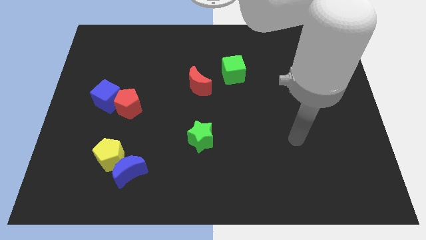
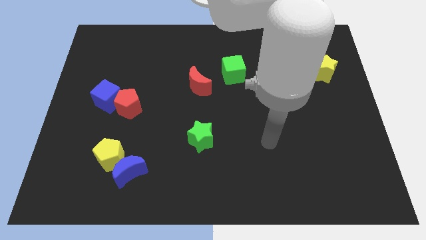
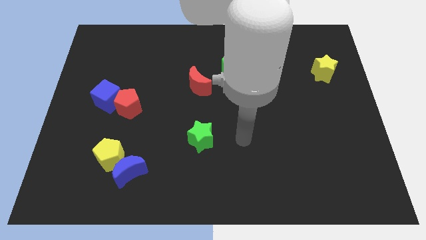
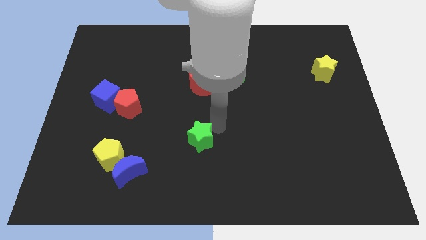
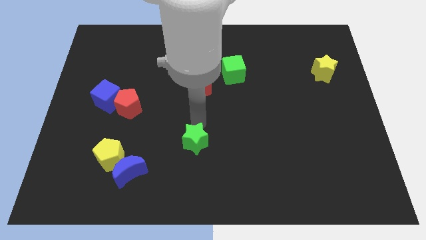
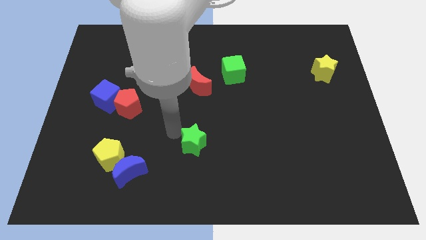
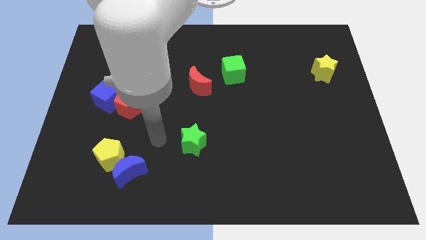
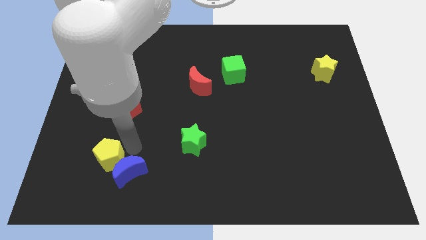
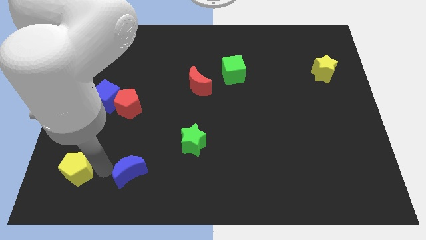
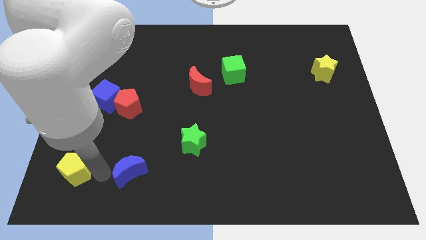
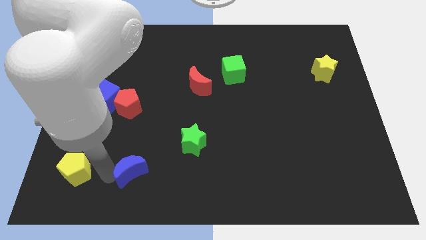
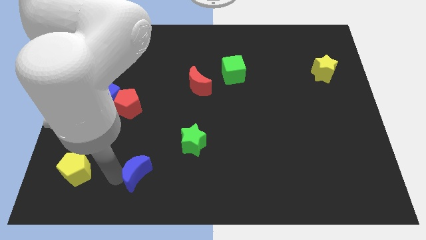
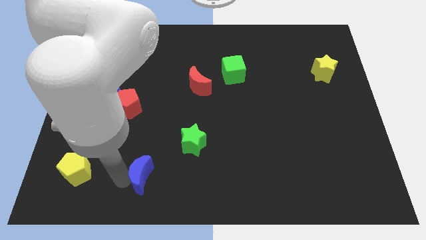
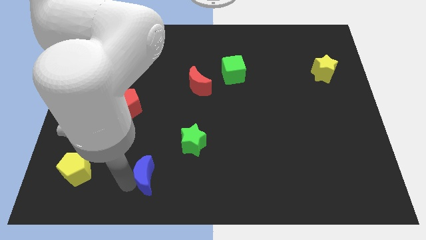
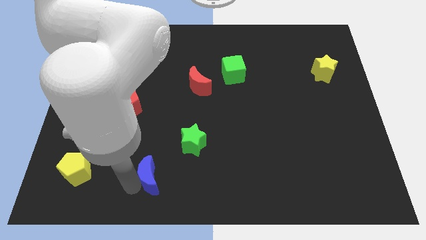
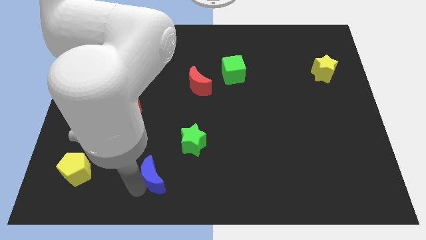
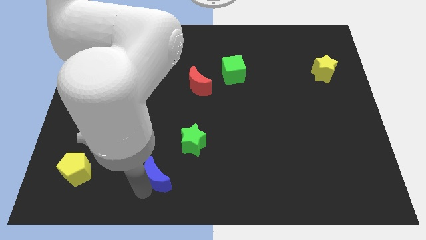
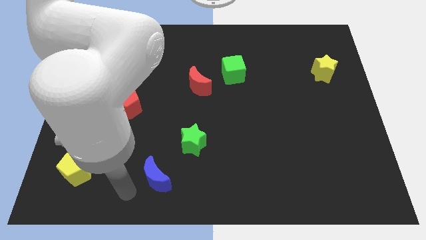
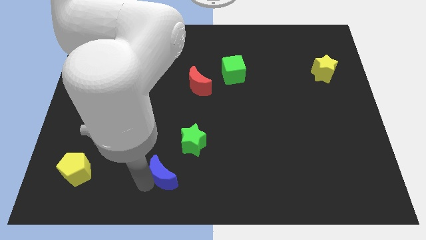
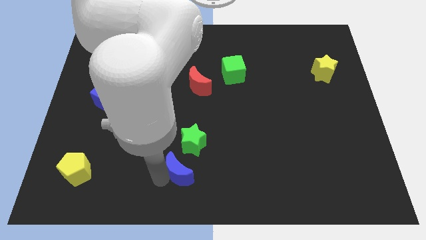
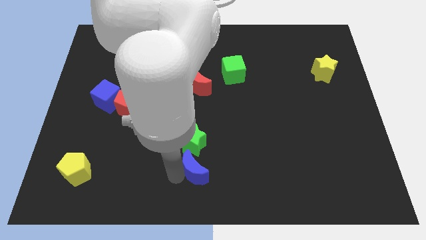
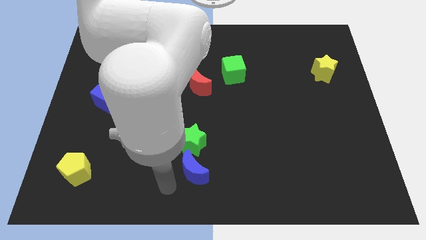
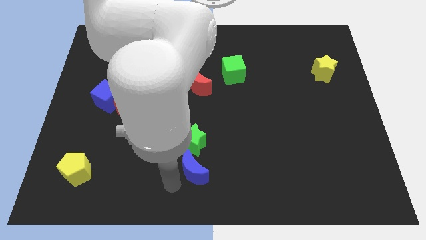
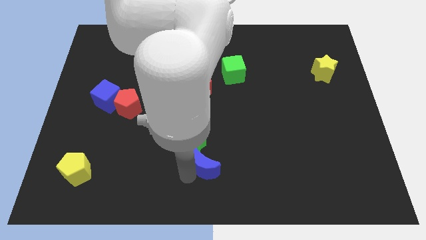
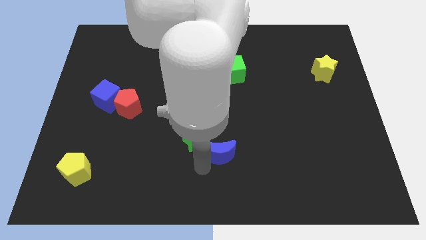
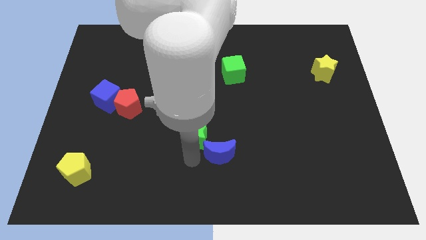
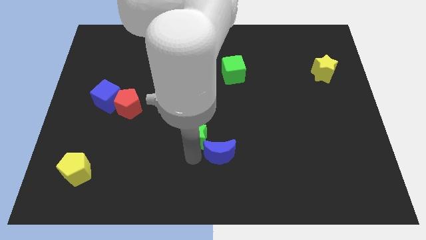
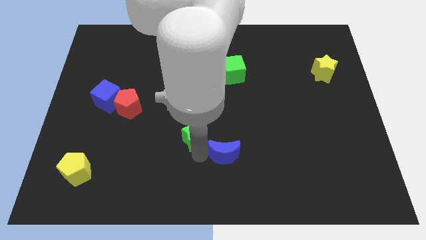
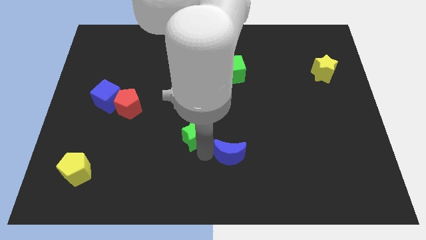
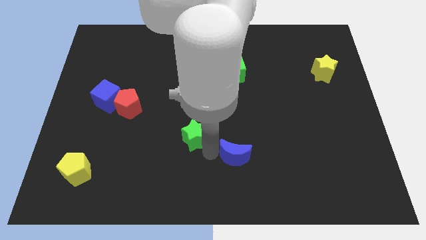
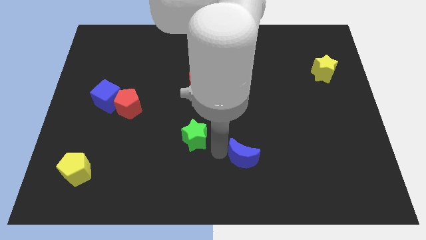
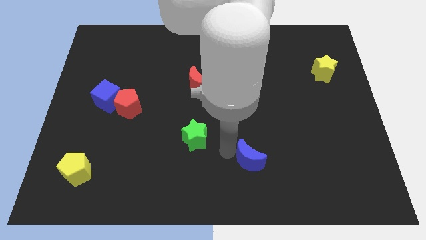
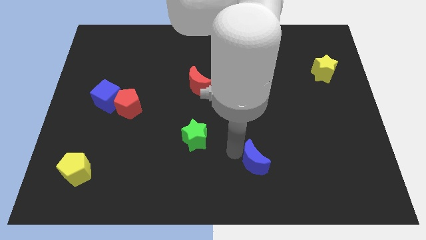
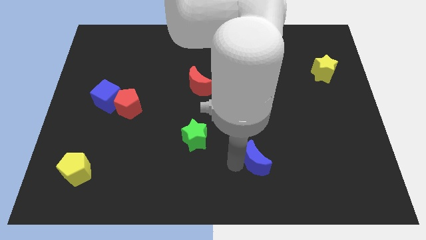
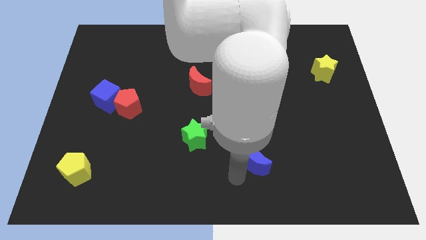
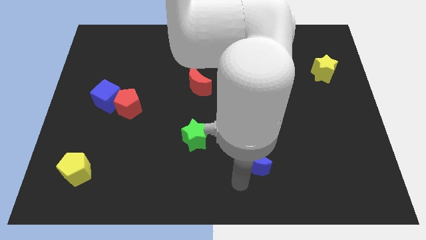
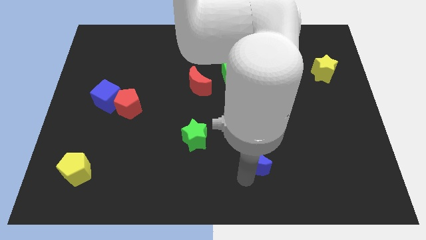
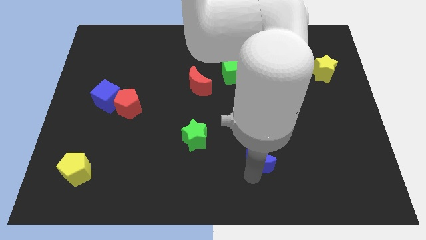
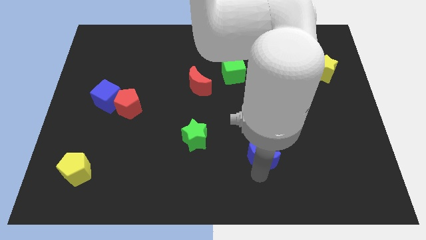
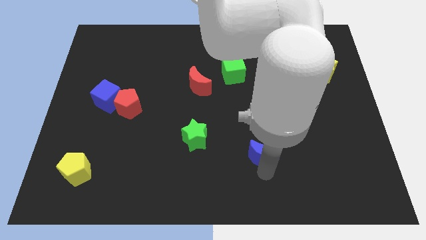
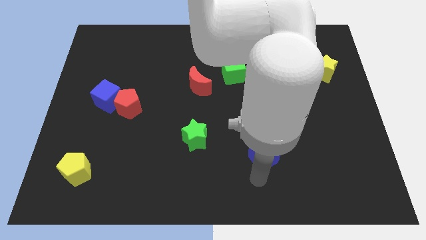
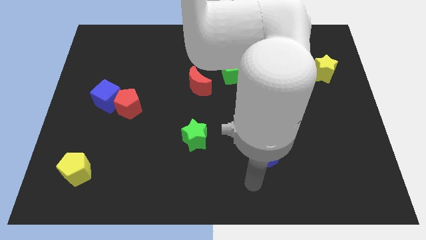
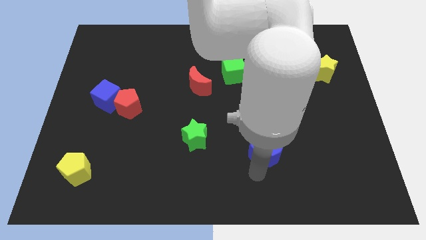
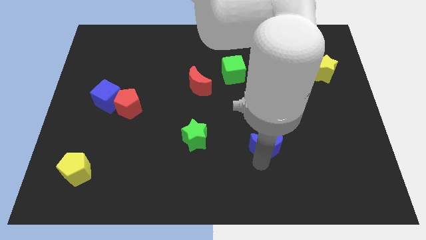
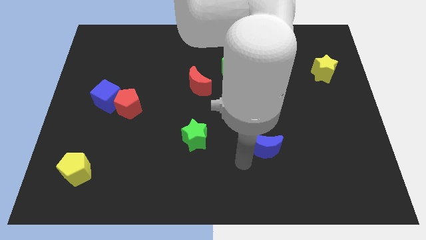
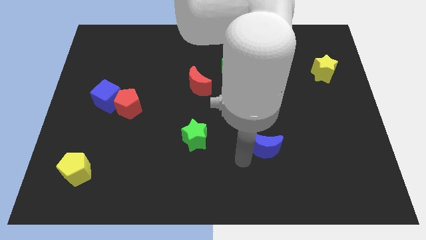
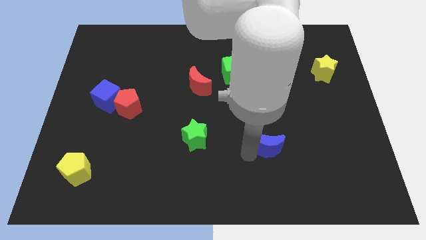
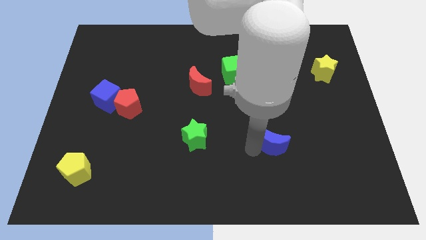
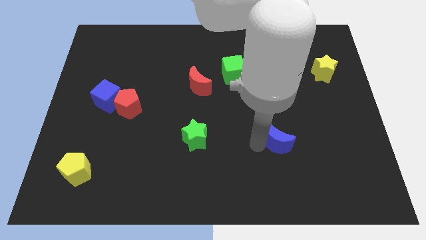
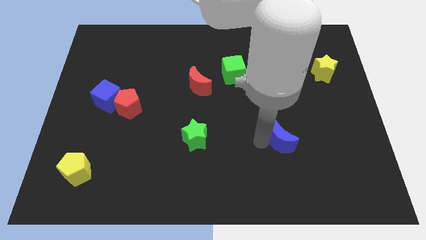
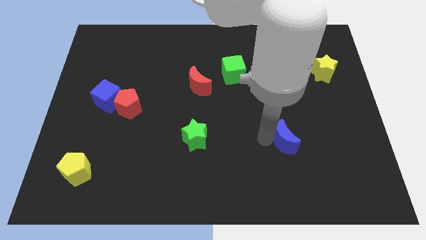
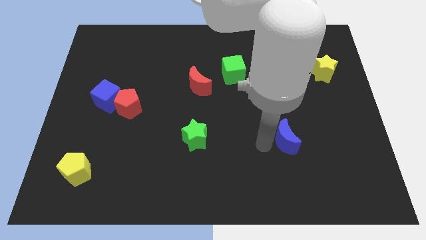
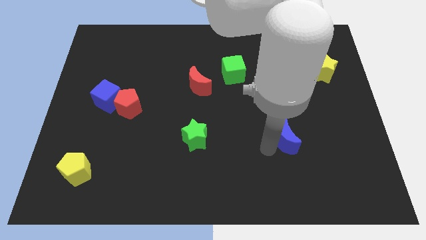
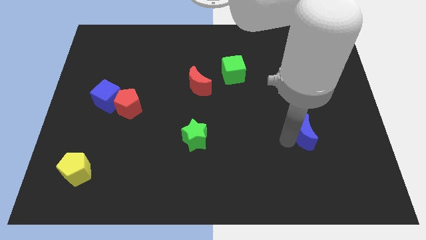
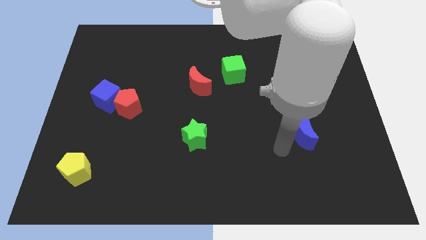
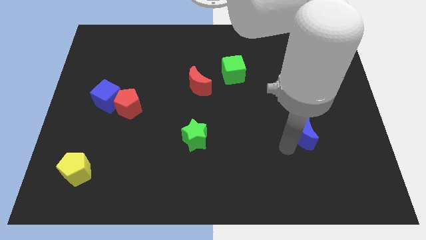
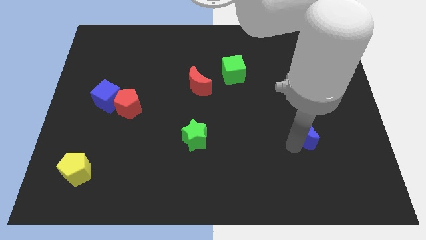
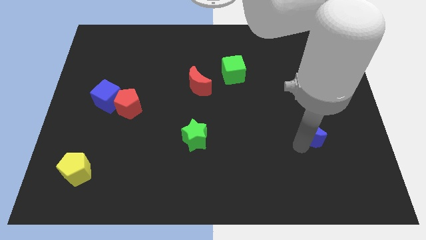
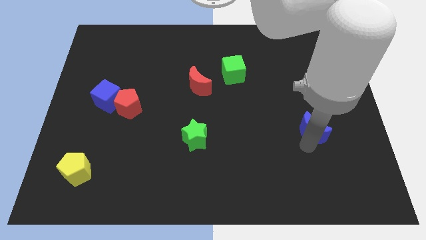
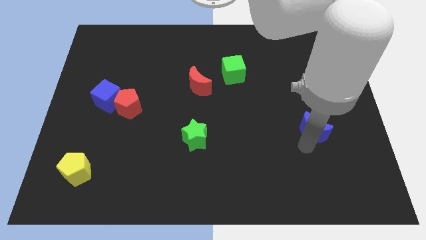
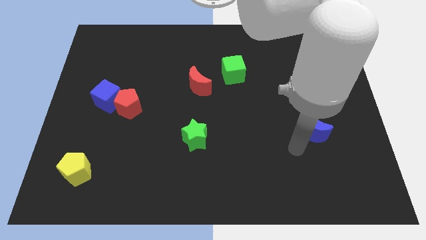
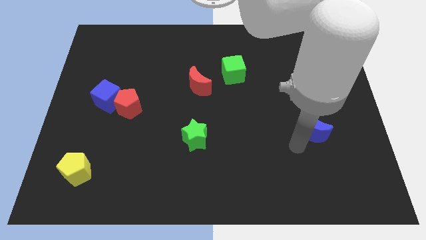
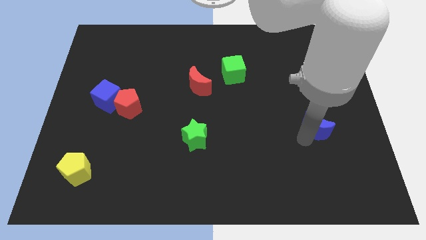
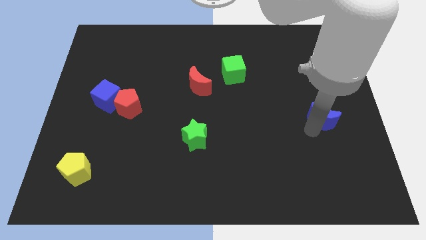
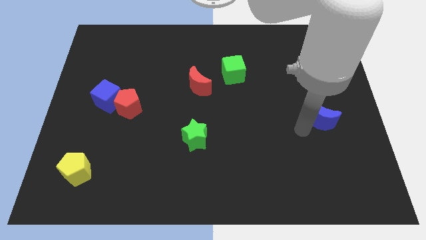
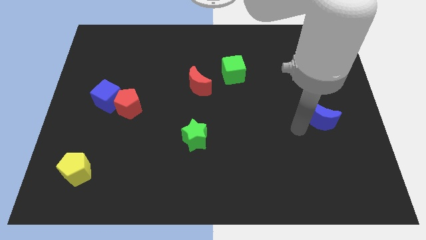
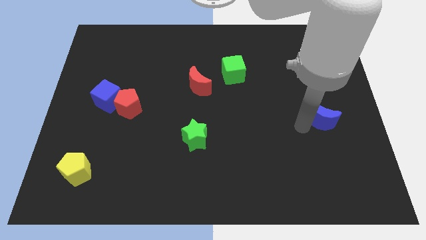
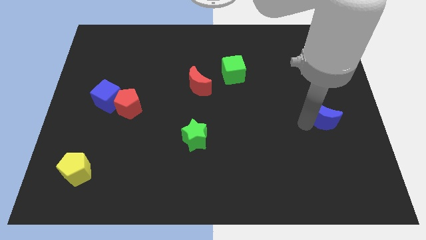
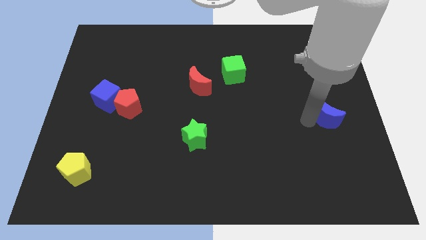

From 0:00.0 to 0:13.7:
slide the blue moon to the center right
